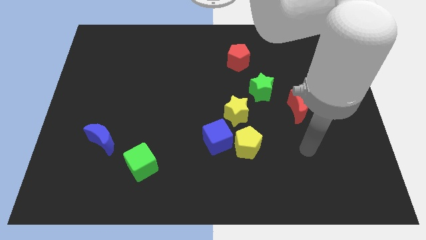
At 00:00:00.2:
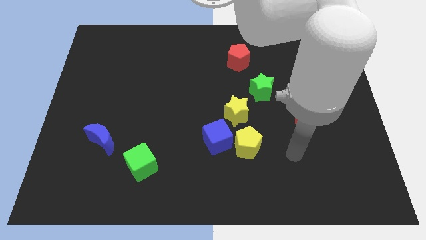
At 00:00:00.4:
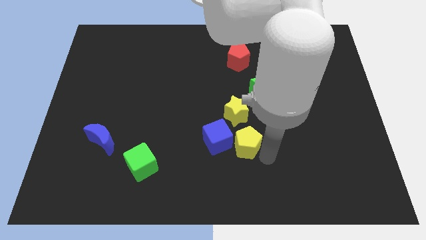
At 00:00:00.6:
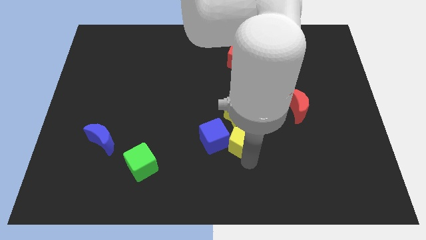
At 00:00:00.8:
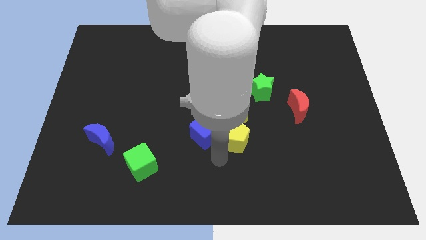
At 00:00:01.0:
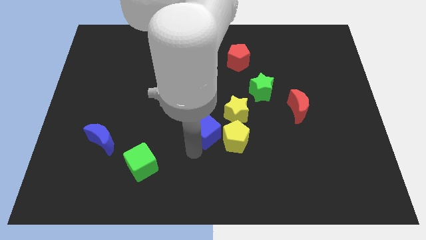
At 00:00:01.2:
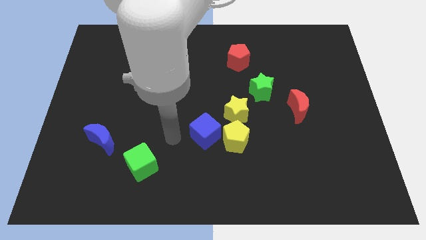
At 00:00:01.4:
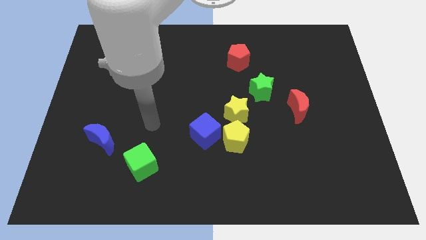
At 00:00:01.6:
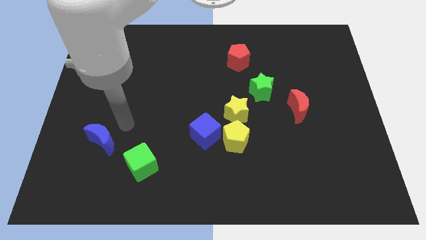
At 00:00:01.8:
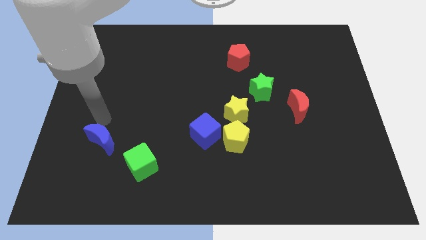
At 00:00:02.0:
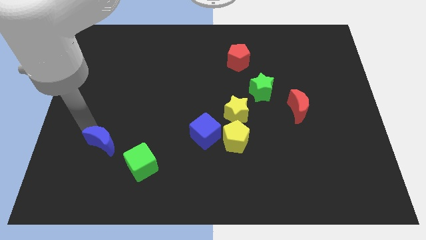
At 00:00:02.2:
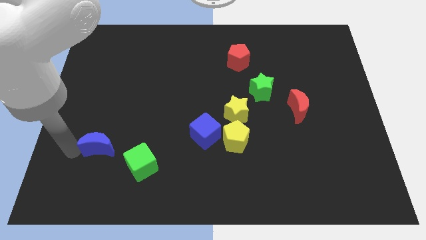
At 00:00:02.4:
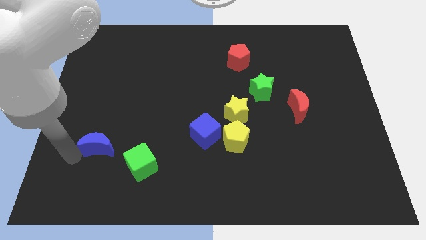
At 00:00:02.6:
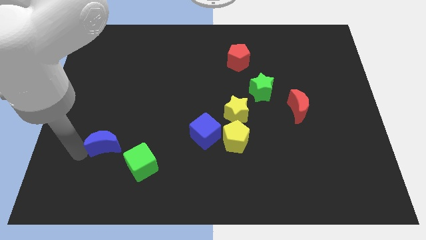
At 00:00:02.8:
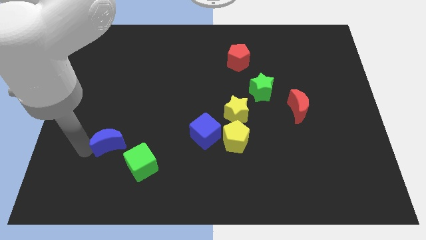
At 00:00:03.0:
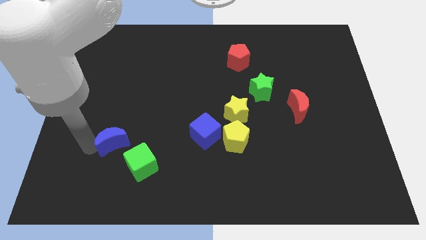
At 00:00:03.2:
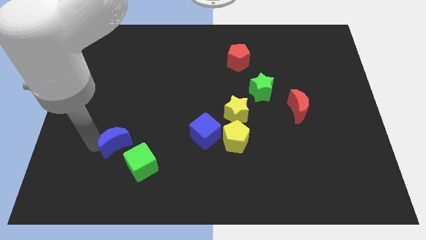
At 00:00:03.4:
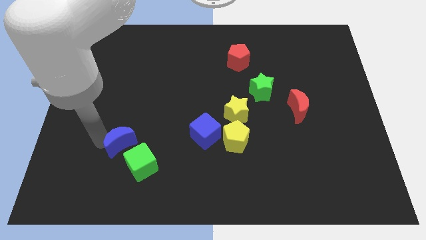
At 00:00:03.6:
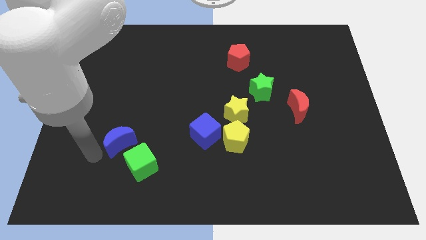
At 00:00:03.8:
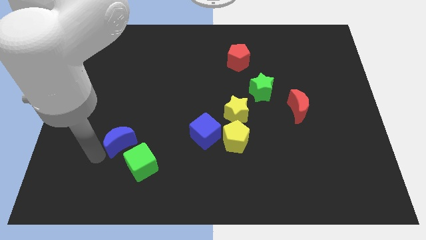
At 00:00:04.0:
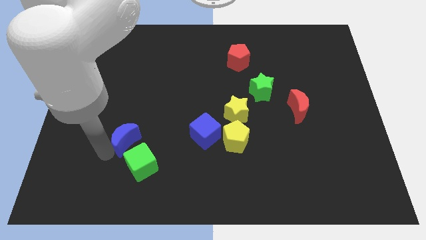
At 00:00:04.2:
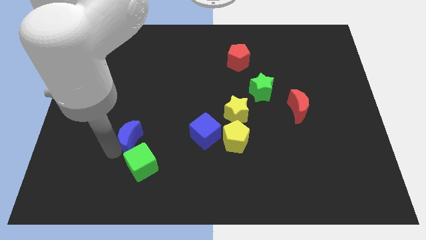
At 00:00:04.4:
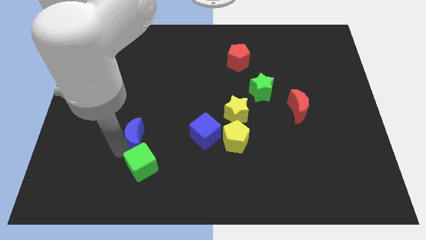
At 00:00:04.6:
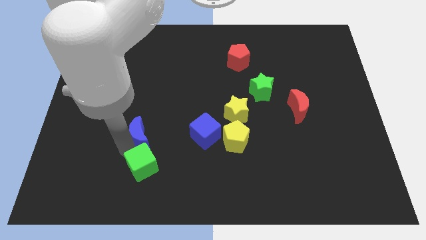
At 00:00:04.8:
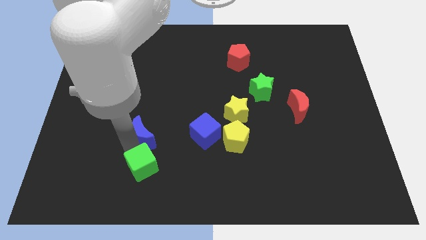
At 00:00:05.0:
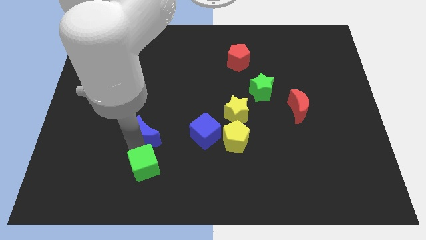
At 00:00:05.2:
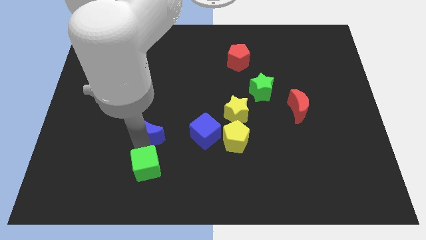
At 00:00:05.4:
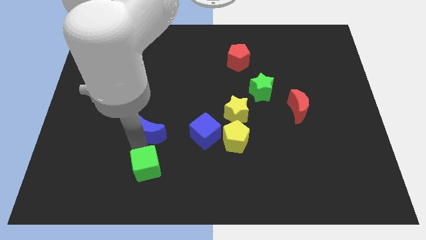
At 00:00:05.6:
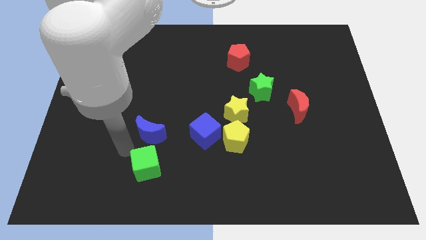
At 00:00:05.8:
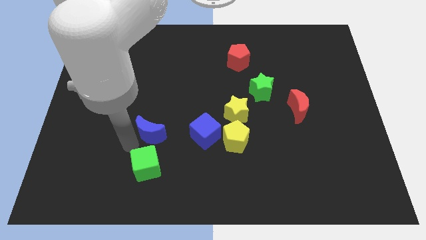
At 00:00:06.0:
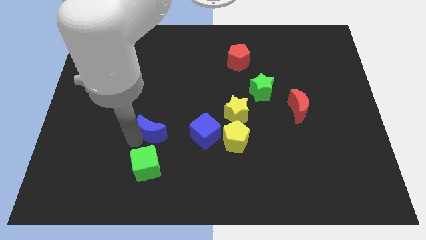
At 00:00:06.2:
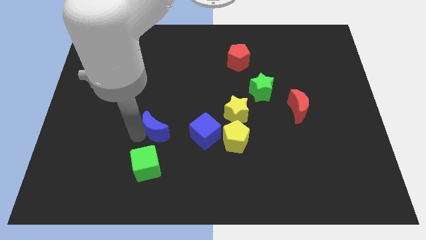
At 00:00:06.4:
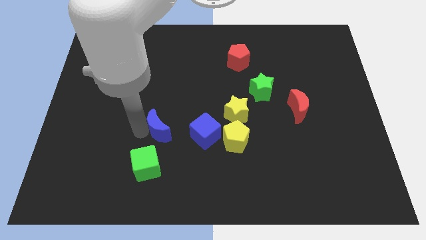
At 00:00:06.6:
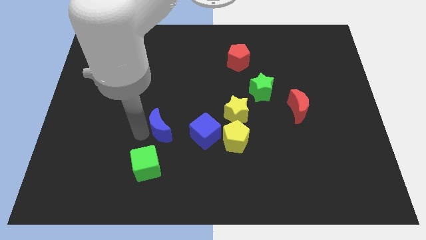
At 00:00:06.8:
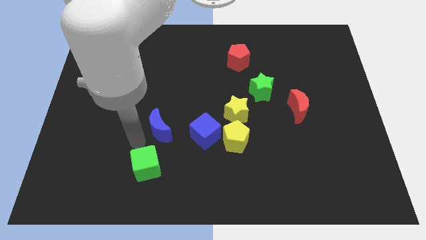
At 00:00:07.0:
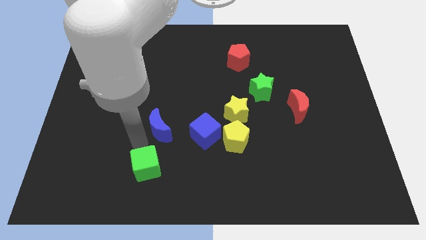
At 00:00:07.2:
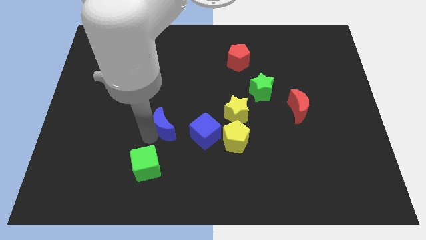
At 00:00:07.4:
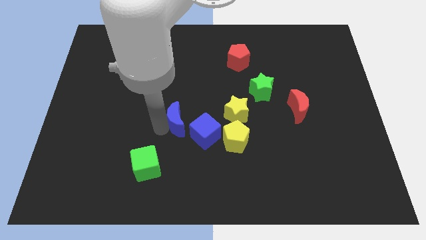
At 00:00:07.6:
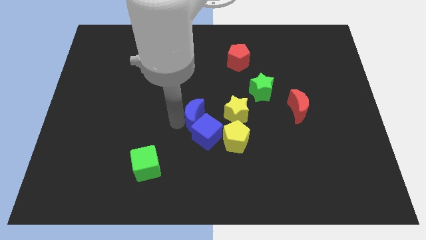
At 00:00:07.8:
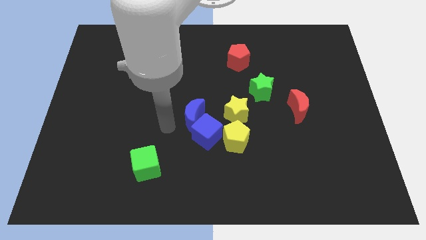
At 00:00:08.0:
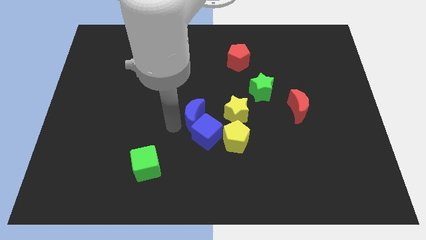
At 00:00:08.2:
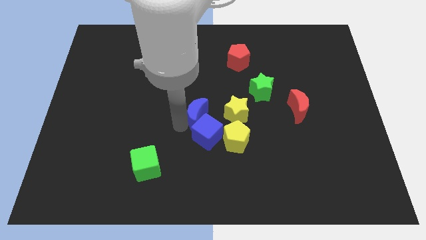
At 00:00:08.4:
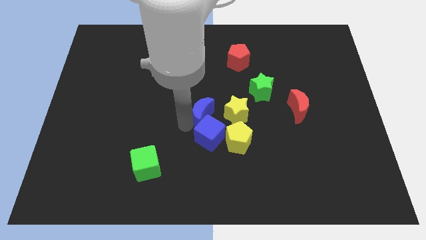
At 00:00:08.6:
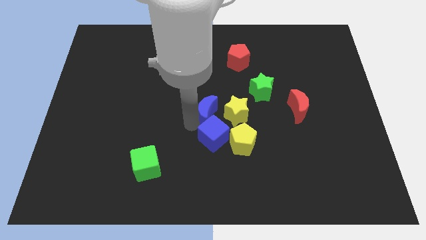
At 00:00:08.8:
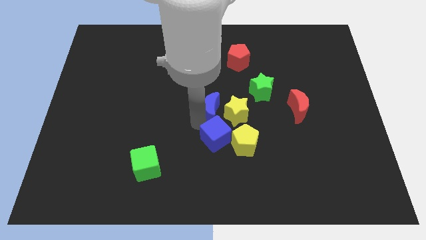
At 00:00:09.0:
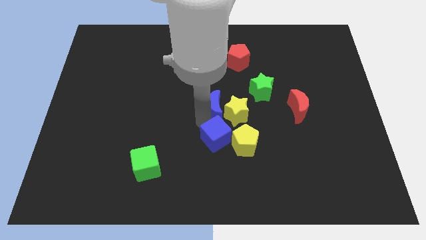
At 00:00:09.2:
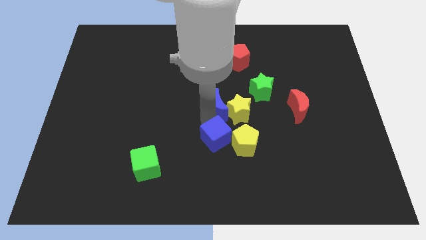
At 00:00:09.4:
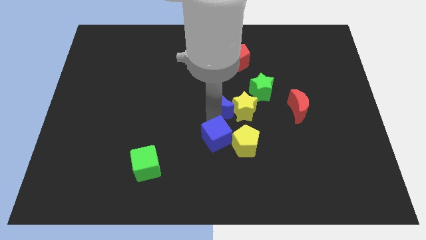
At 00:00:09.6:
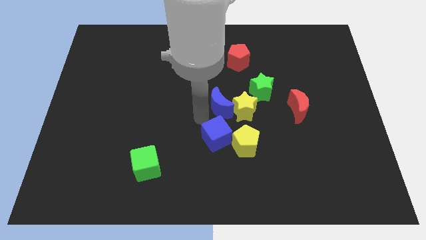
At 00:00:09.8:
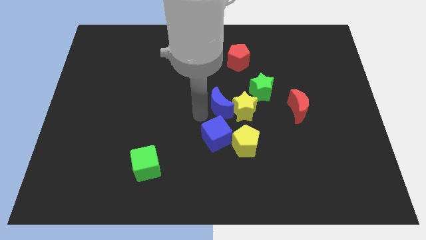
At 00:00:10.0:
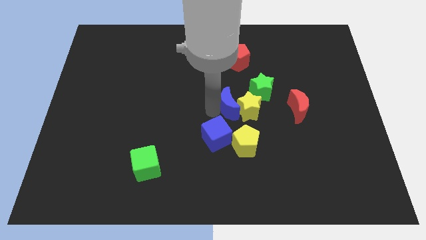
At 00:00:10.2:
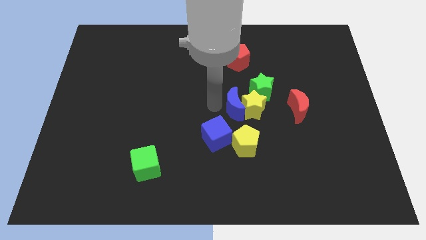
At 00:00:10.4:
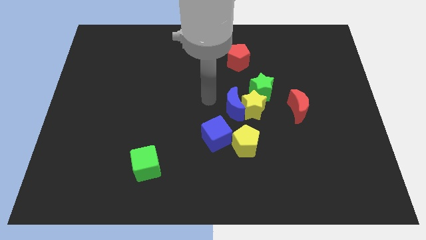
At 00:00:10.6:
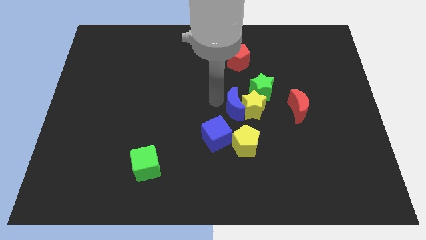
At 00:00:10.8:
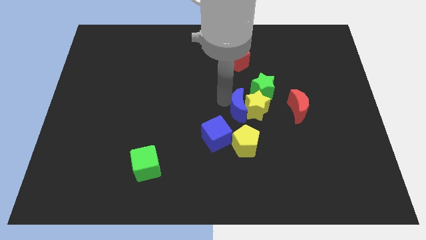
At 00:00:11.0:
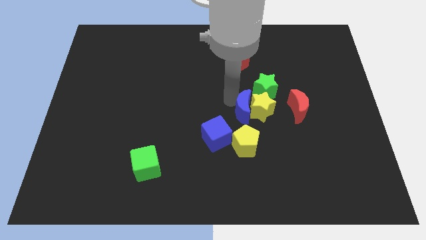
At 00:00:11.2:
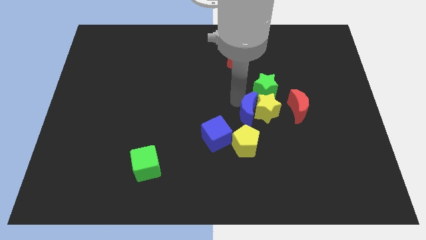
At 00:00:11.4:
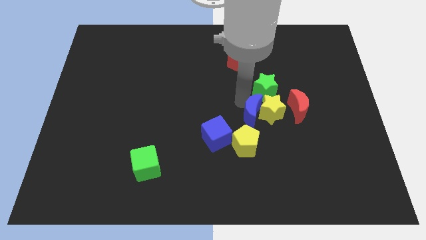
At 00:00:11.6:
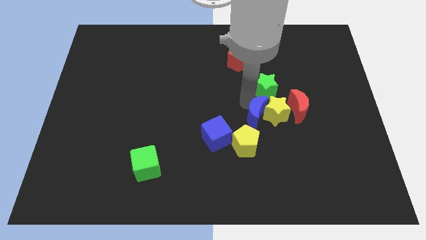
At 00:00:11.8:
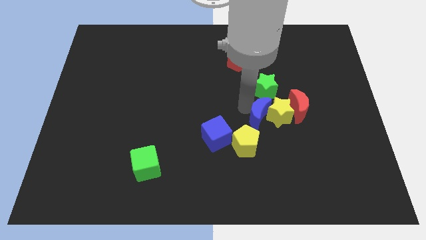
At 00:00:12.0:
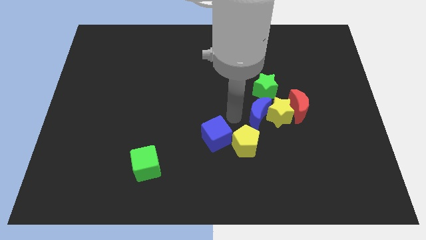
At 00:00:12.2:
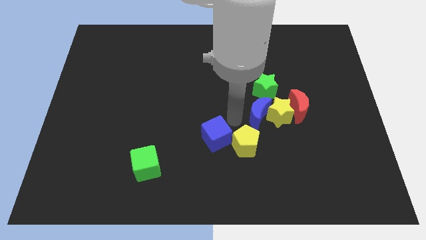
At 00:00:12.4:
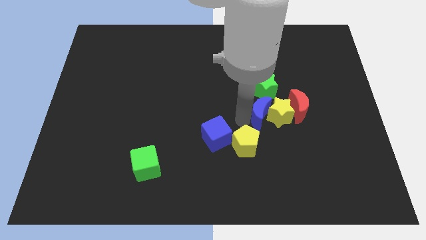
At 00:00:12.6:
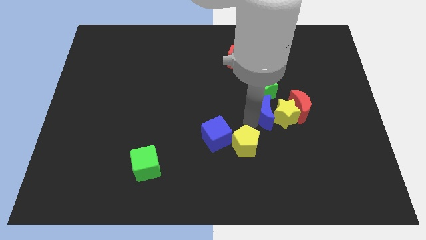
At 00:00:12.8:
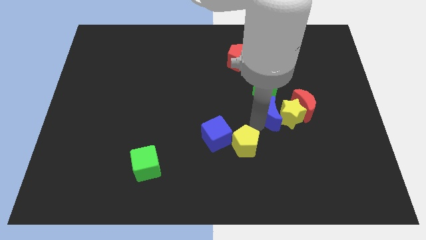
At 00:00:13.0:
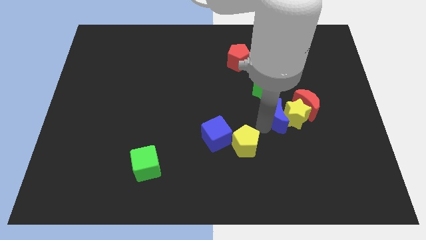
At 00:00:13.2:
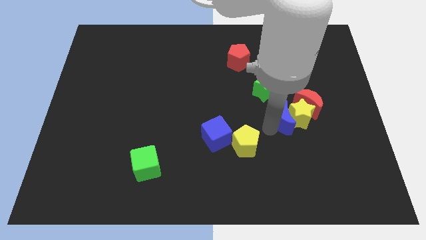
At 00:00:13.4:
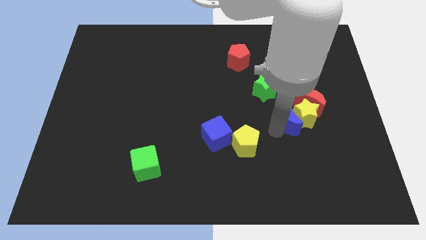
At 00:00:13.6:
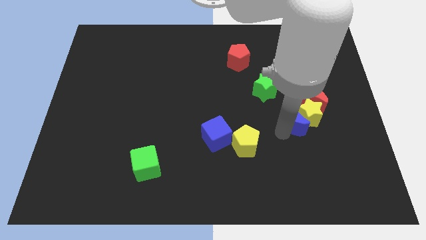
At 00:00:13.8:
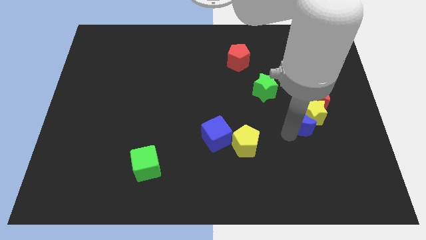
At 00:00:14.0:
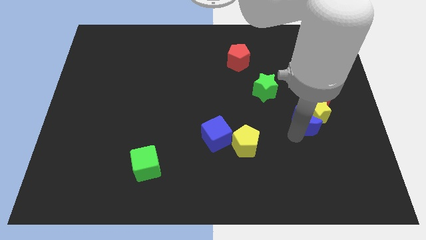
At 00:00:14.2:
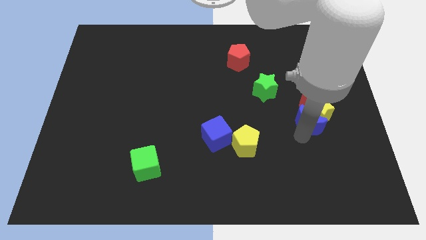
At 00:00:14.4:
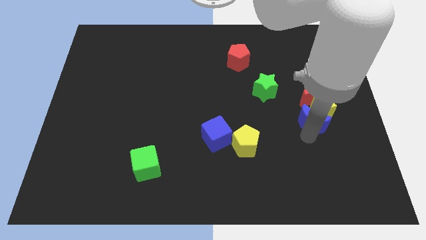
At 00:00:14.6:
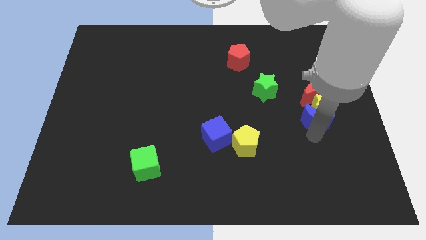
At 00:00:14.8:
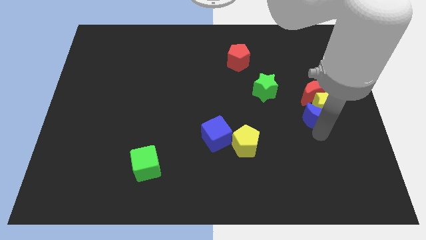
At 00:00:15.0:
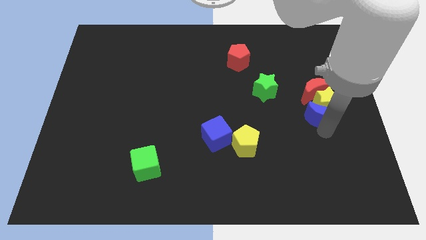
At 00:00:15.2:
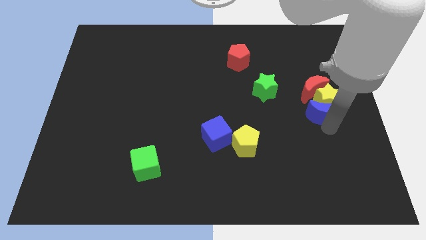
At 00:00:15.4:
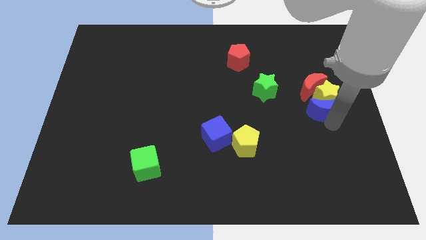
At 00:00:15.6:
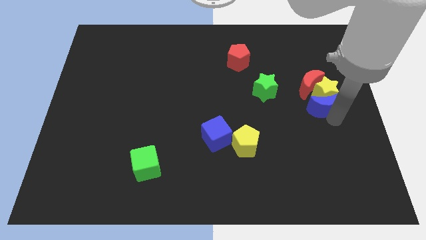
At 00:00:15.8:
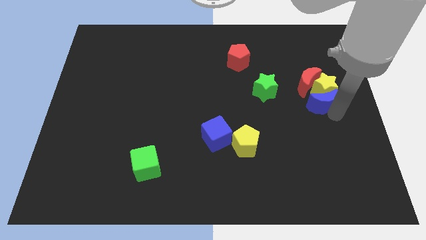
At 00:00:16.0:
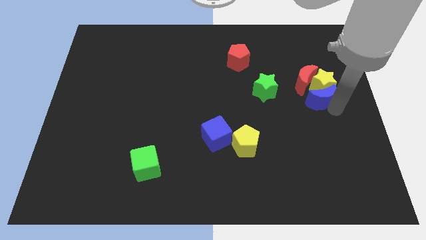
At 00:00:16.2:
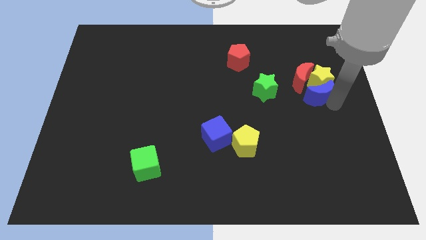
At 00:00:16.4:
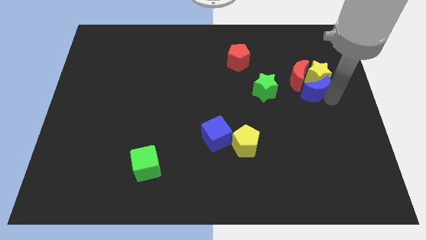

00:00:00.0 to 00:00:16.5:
move the blue moon next to the red moon
